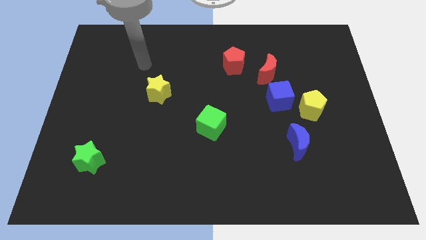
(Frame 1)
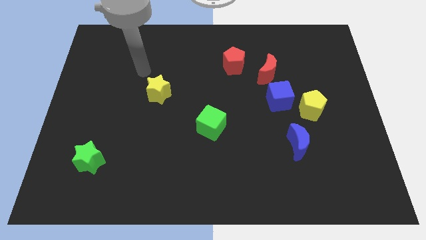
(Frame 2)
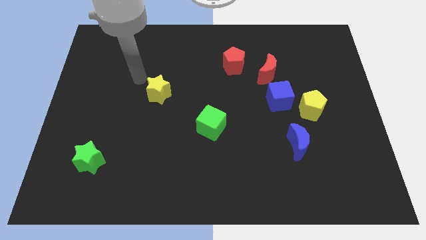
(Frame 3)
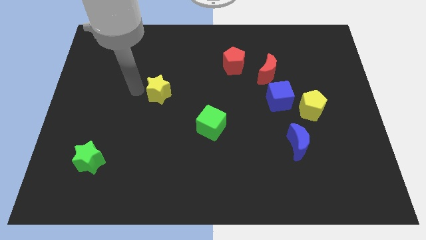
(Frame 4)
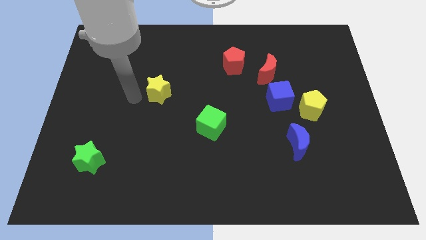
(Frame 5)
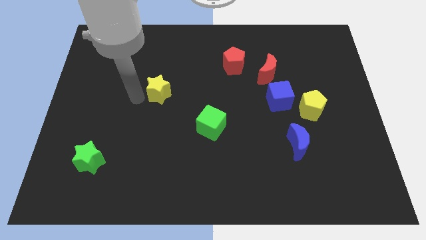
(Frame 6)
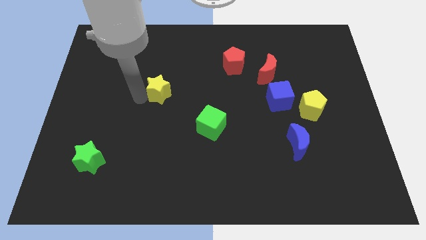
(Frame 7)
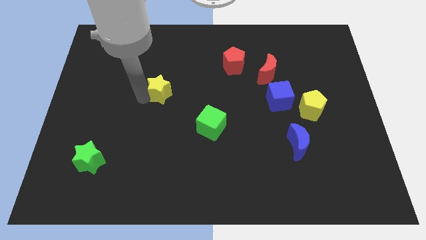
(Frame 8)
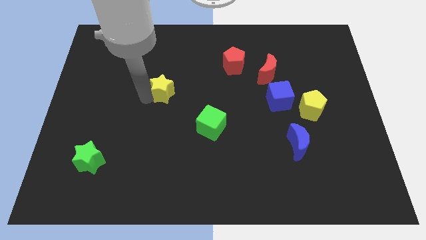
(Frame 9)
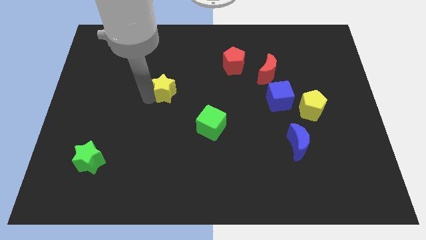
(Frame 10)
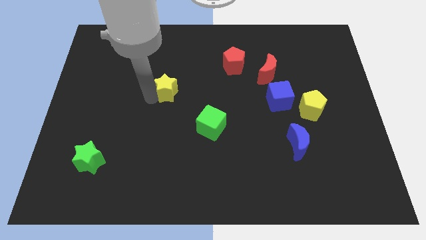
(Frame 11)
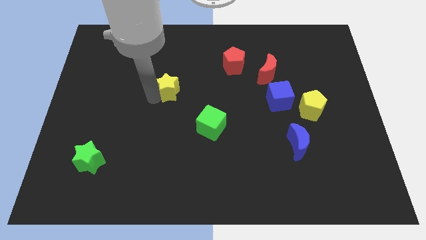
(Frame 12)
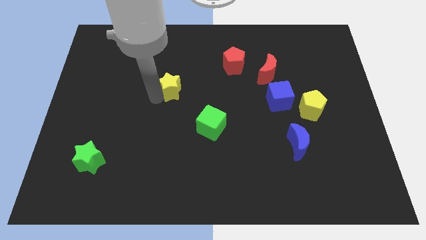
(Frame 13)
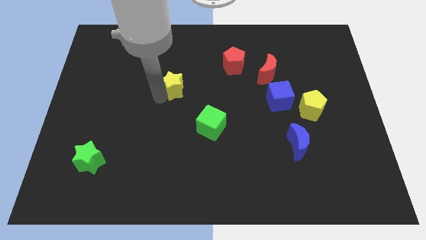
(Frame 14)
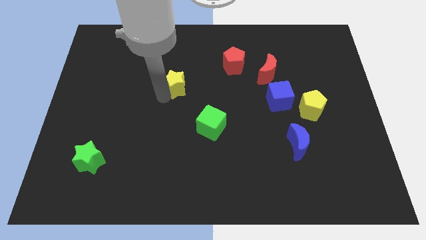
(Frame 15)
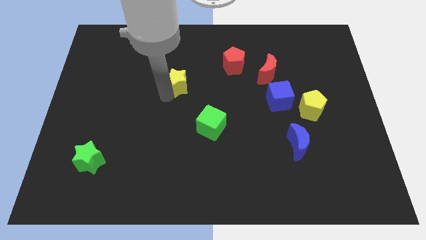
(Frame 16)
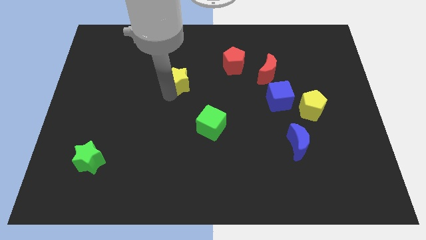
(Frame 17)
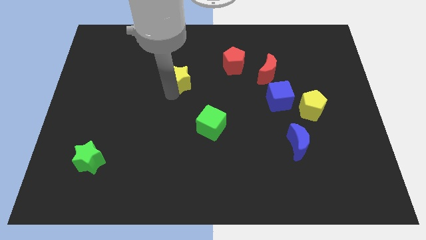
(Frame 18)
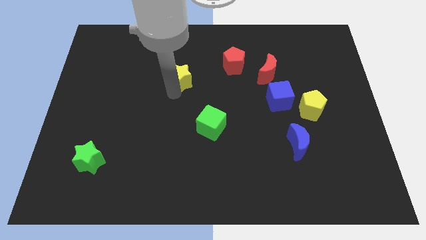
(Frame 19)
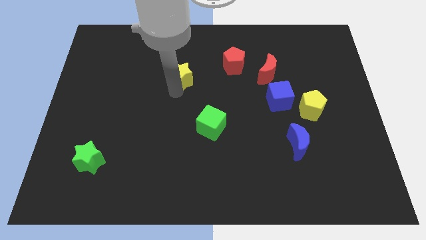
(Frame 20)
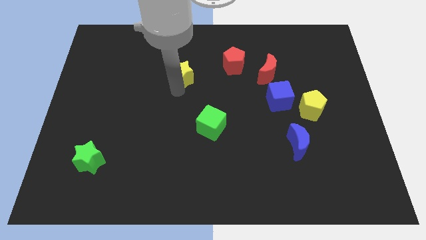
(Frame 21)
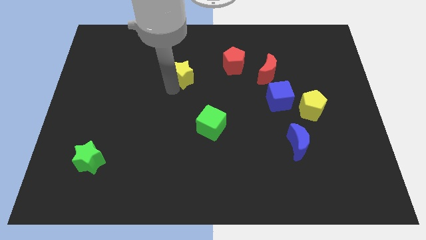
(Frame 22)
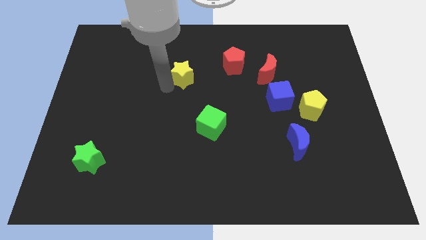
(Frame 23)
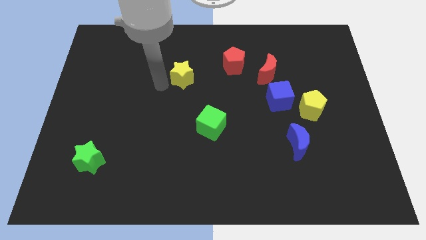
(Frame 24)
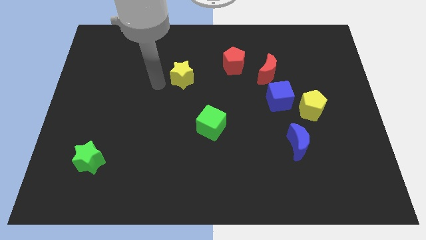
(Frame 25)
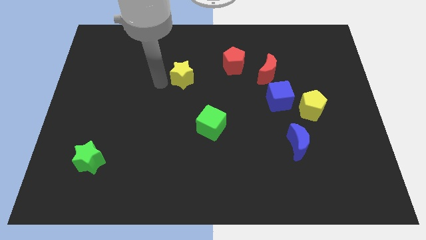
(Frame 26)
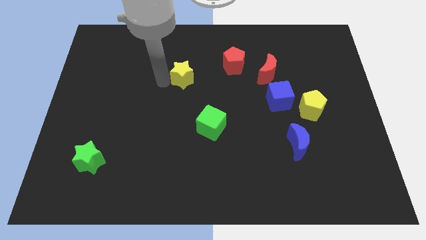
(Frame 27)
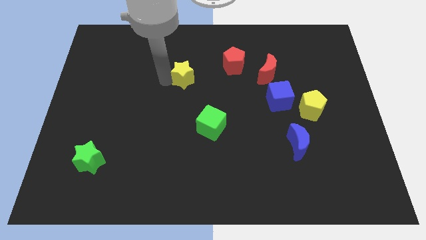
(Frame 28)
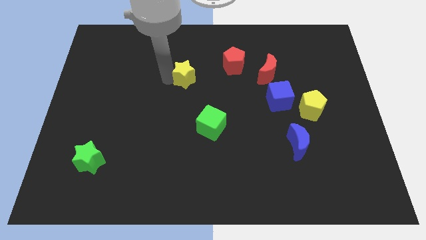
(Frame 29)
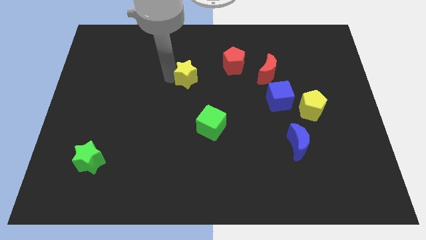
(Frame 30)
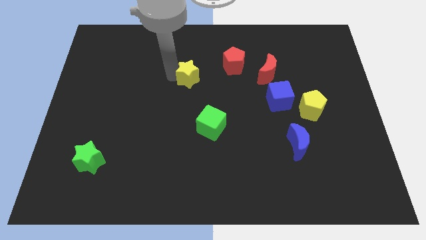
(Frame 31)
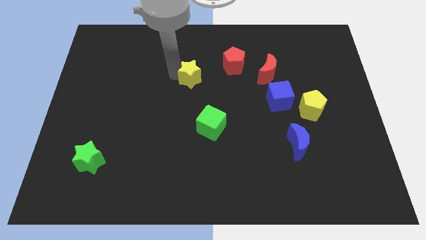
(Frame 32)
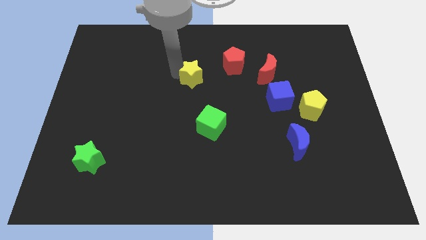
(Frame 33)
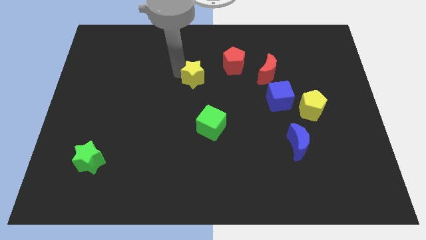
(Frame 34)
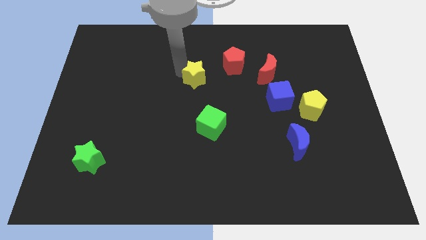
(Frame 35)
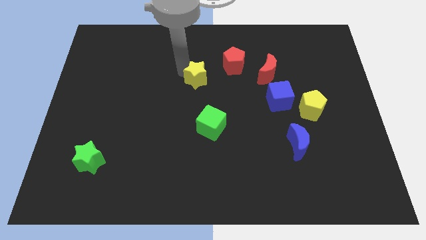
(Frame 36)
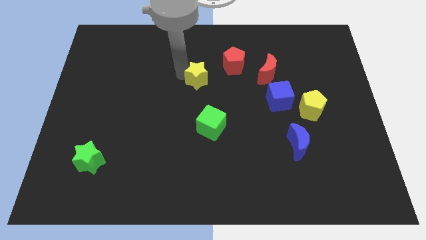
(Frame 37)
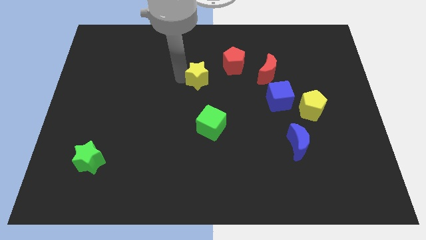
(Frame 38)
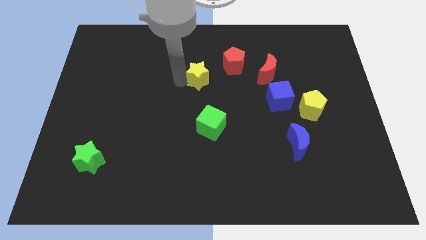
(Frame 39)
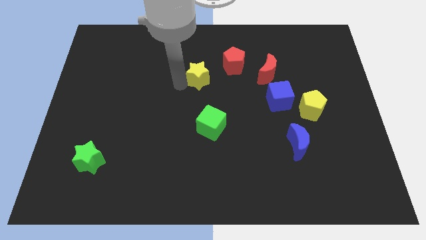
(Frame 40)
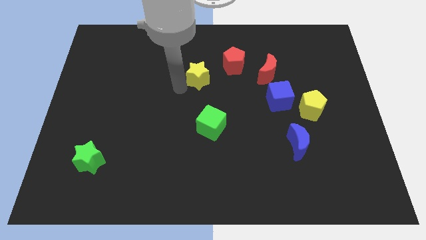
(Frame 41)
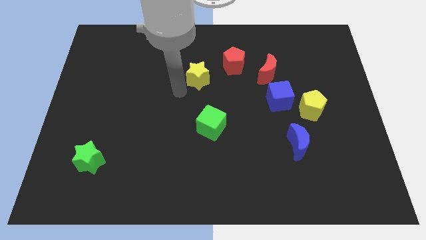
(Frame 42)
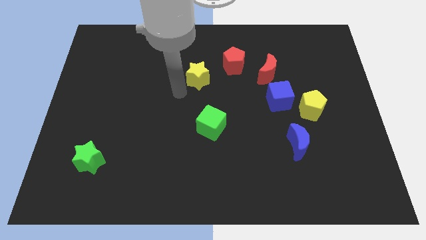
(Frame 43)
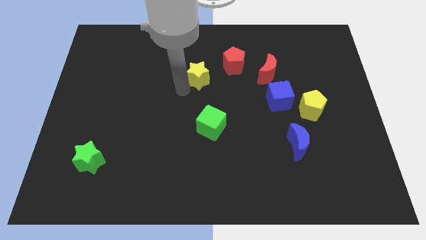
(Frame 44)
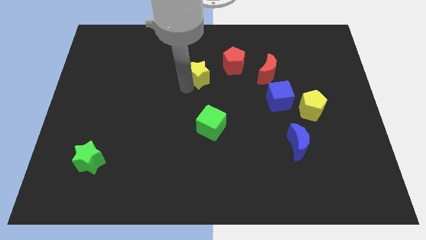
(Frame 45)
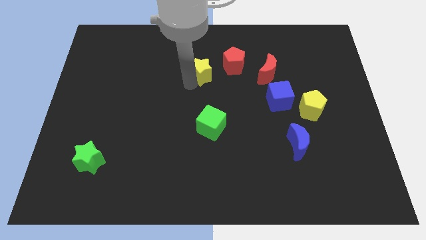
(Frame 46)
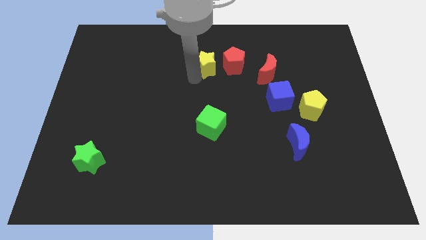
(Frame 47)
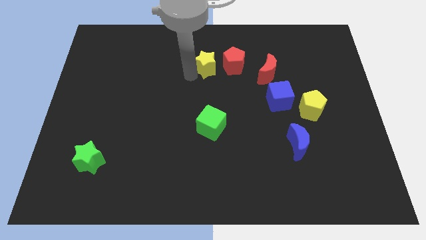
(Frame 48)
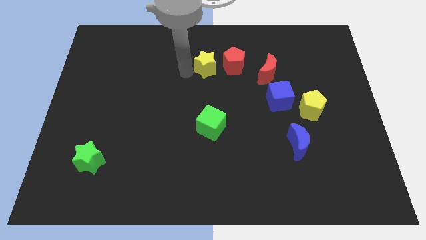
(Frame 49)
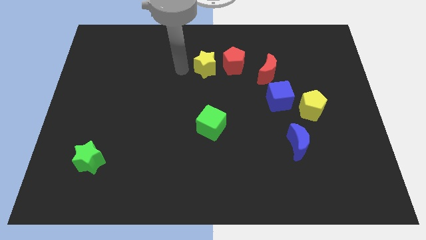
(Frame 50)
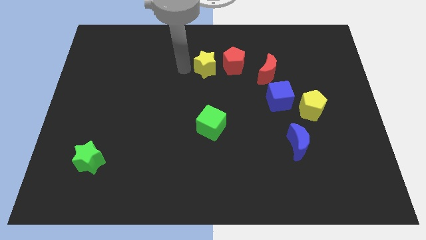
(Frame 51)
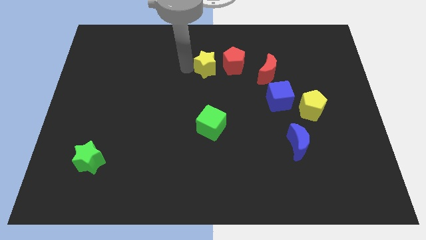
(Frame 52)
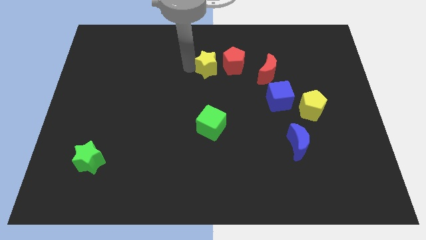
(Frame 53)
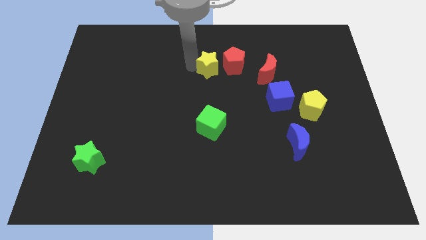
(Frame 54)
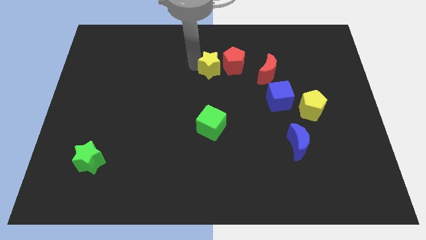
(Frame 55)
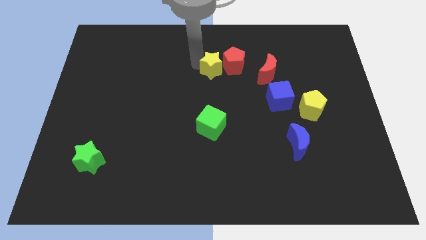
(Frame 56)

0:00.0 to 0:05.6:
put the yellow star towards the red pentagon

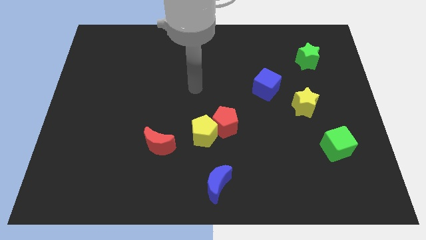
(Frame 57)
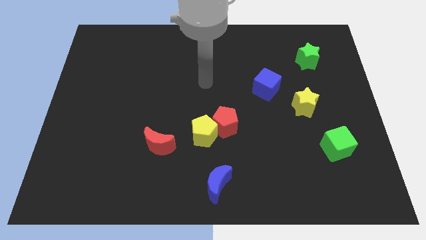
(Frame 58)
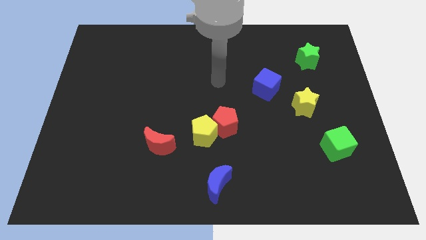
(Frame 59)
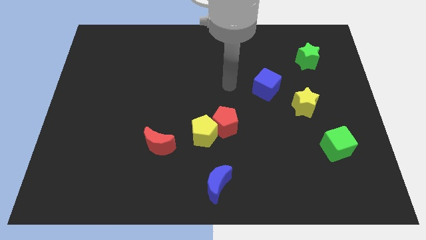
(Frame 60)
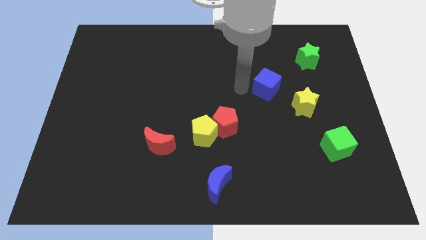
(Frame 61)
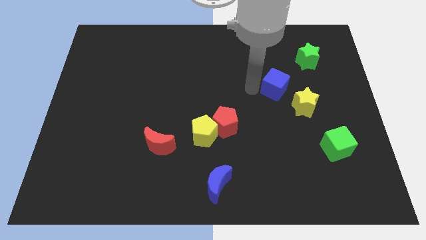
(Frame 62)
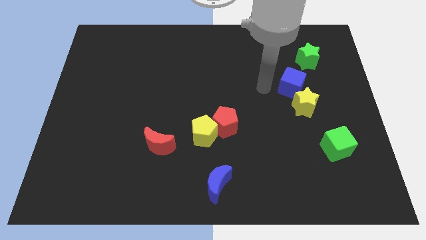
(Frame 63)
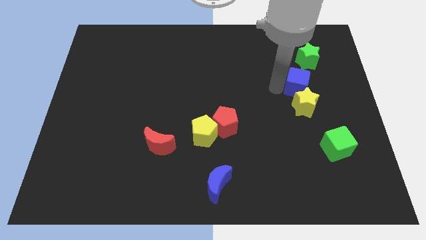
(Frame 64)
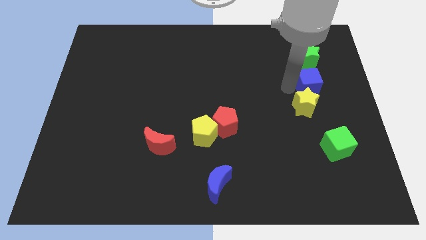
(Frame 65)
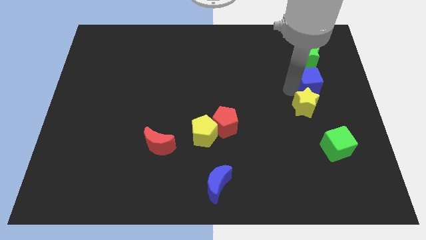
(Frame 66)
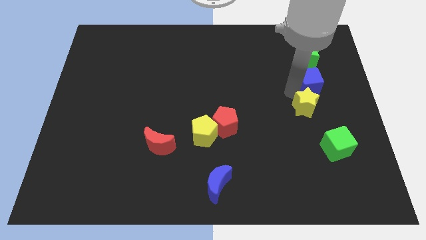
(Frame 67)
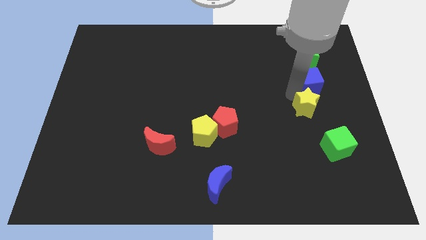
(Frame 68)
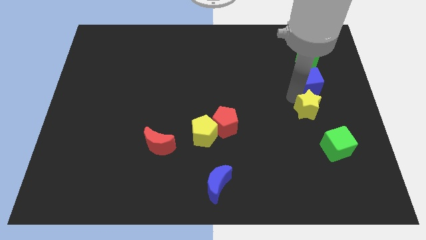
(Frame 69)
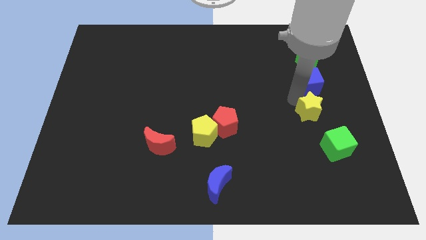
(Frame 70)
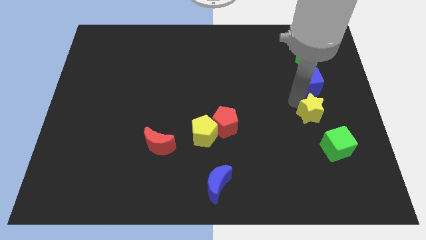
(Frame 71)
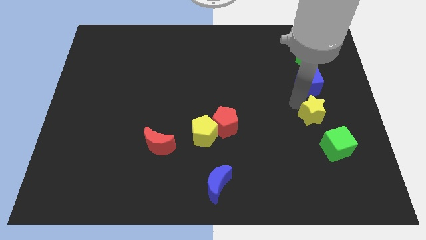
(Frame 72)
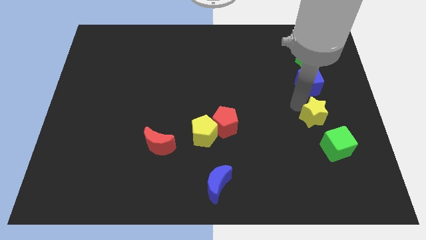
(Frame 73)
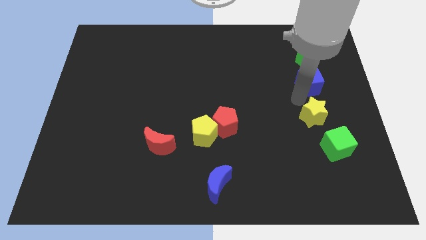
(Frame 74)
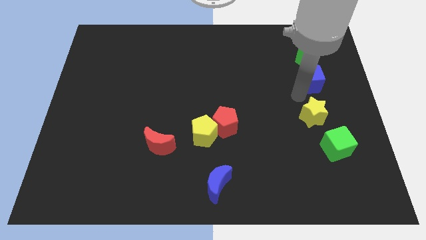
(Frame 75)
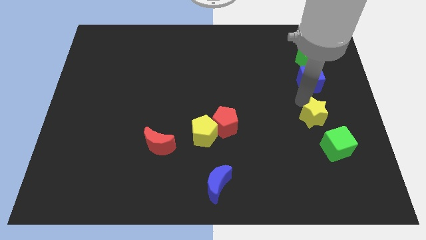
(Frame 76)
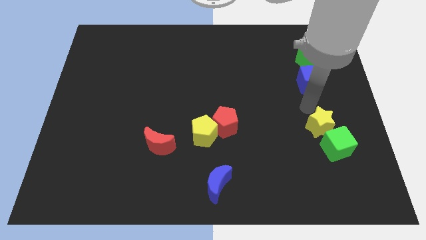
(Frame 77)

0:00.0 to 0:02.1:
push the yellow star towards the green cube
